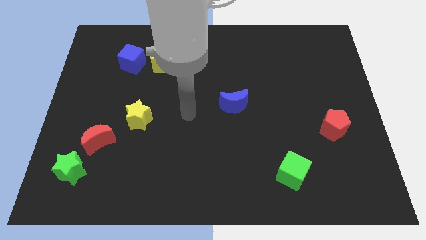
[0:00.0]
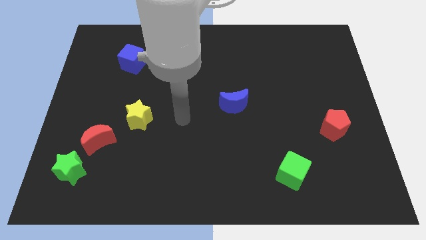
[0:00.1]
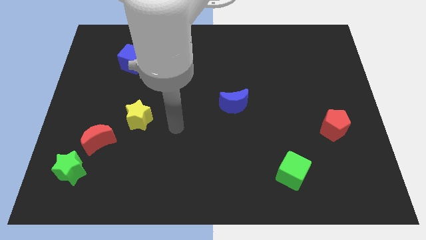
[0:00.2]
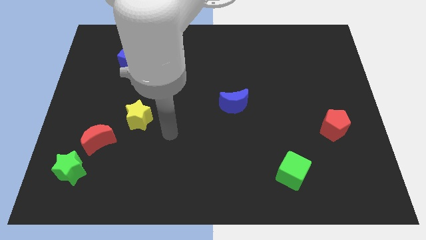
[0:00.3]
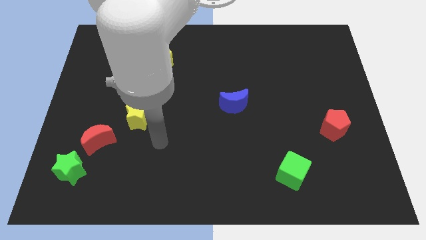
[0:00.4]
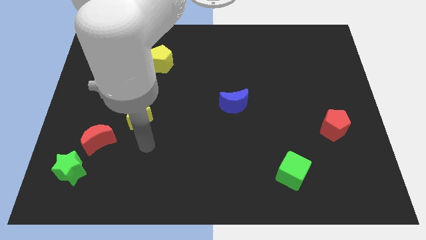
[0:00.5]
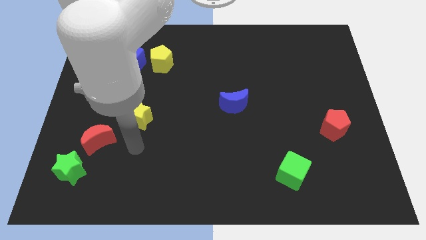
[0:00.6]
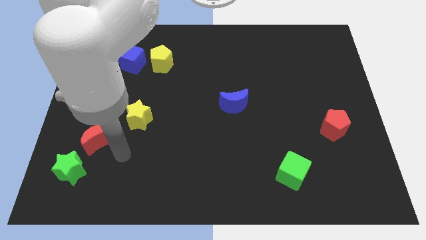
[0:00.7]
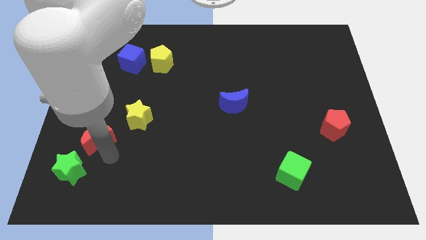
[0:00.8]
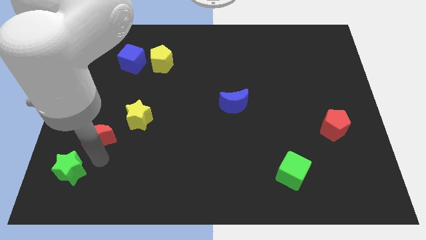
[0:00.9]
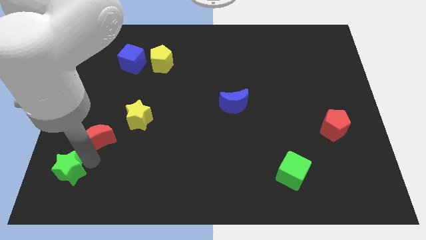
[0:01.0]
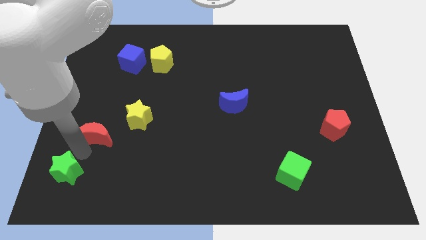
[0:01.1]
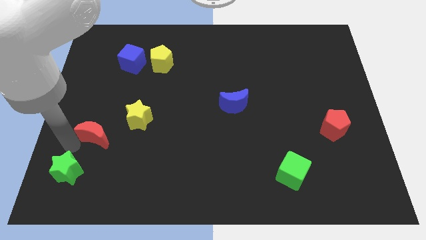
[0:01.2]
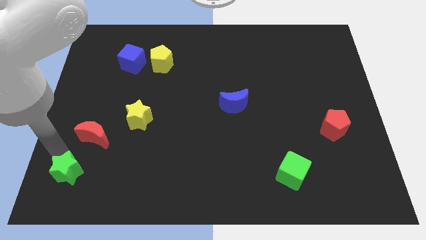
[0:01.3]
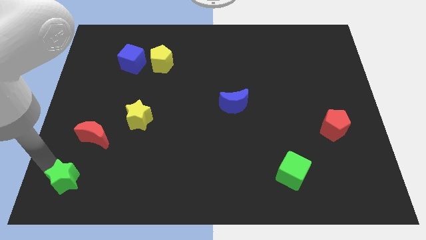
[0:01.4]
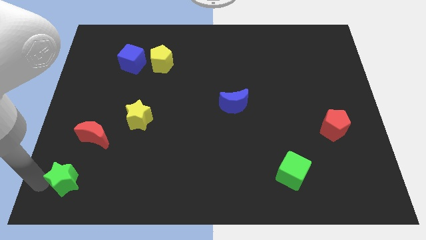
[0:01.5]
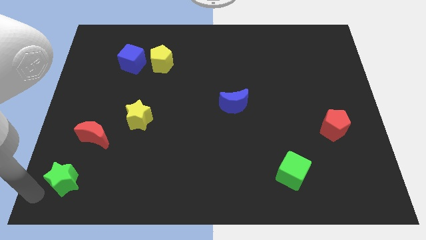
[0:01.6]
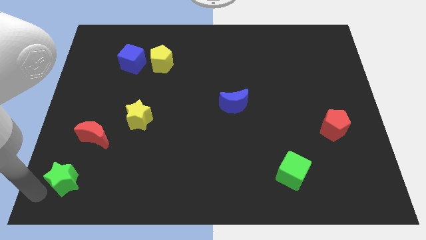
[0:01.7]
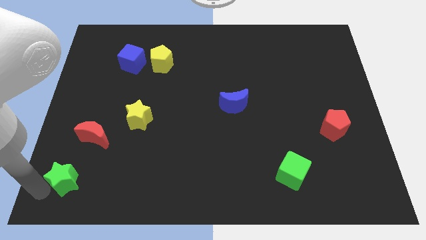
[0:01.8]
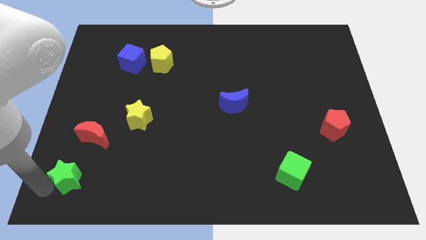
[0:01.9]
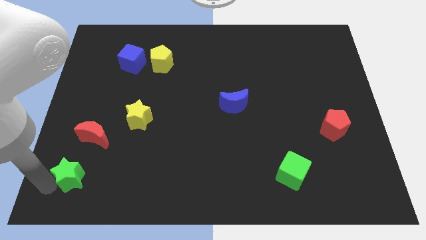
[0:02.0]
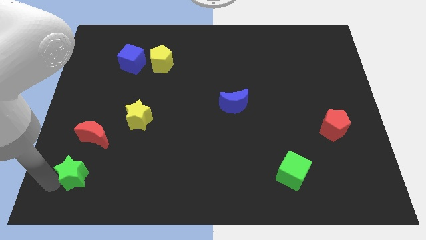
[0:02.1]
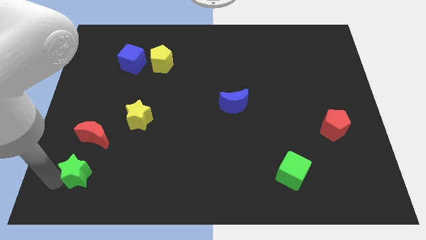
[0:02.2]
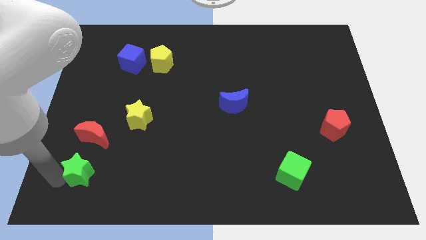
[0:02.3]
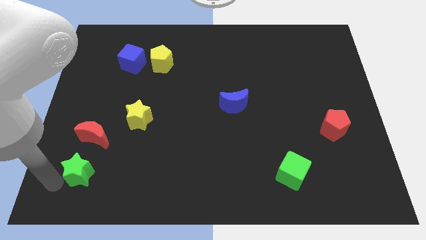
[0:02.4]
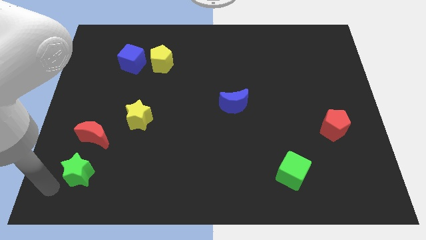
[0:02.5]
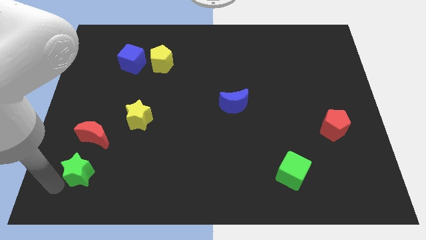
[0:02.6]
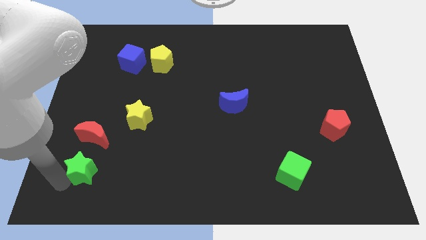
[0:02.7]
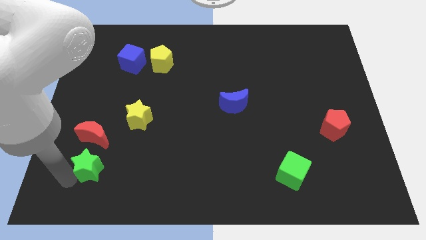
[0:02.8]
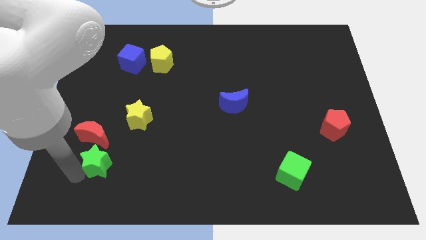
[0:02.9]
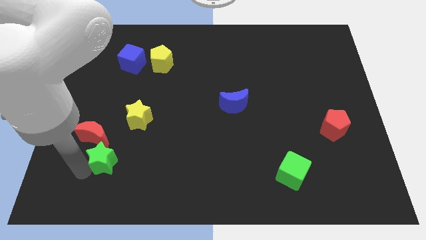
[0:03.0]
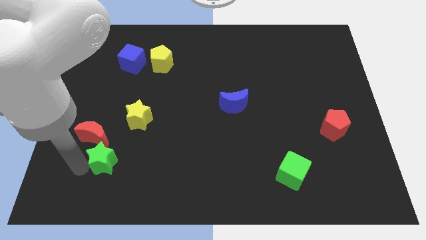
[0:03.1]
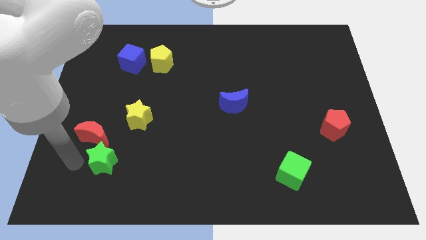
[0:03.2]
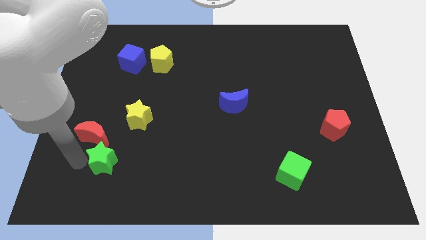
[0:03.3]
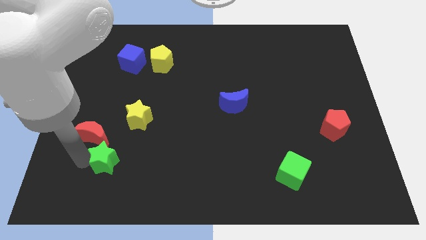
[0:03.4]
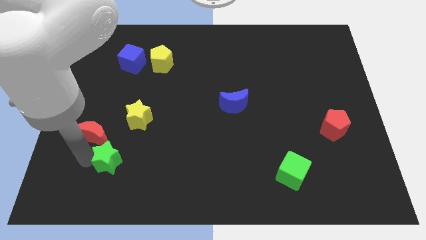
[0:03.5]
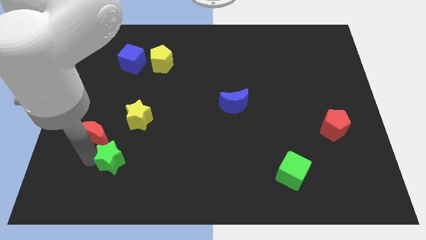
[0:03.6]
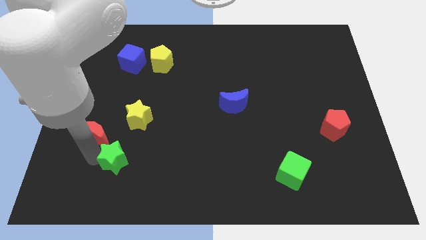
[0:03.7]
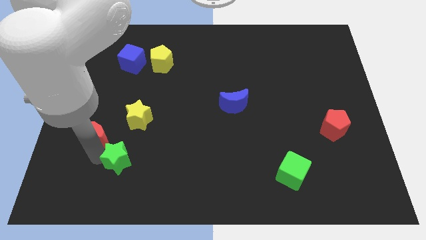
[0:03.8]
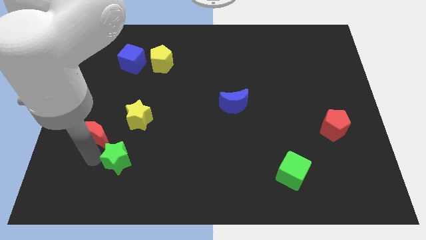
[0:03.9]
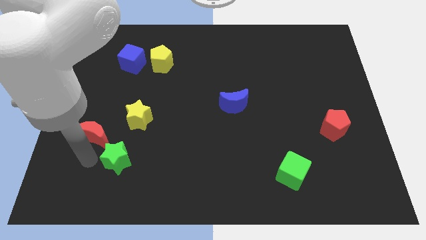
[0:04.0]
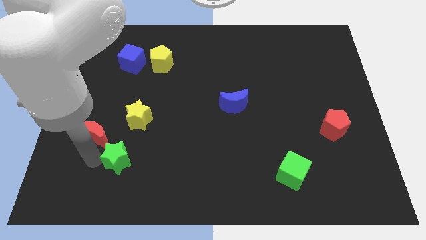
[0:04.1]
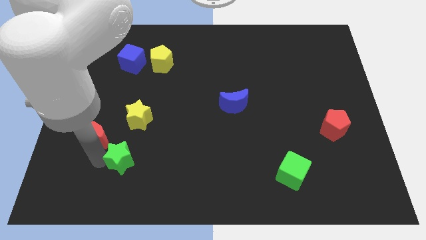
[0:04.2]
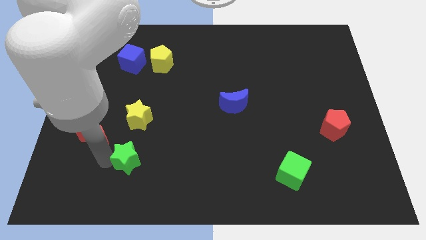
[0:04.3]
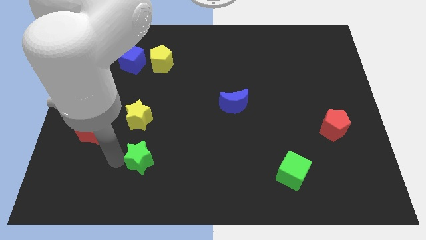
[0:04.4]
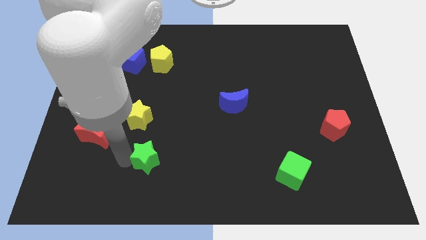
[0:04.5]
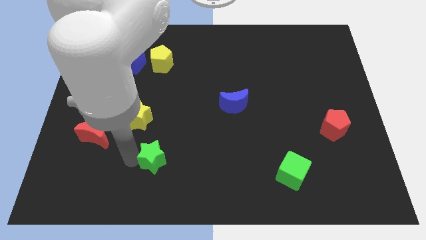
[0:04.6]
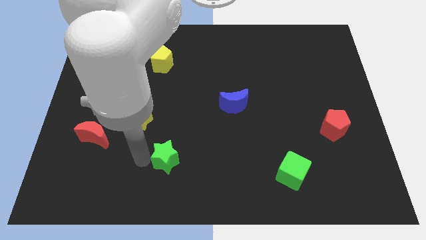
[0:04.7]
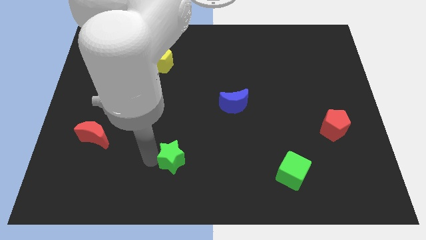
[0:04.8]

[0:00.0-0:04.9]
move the green star to the right

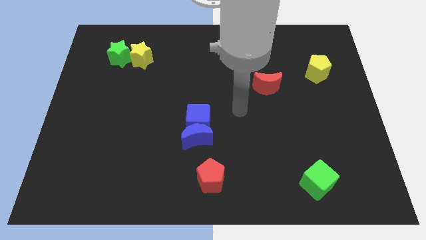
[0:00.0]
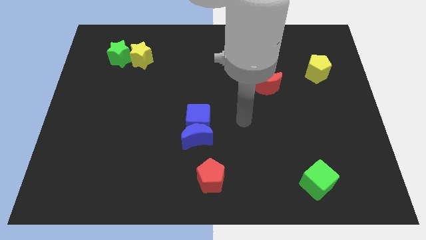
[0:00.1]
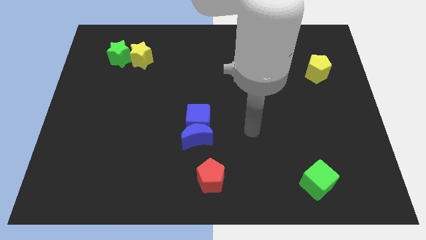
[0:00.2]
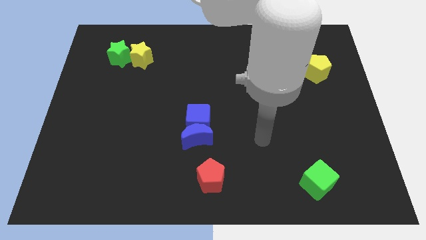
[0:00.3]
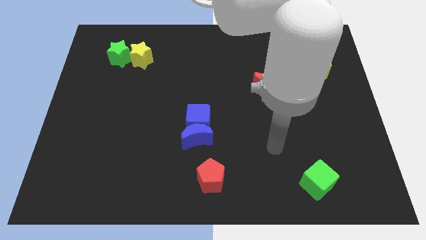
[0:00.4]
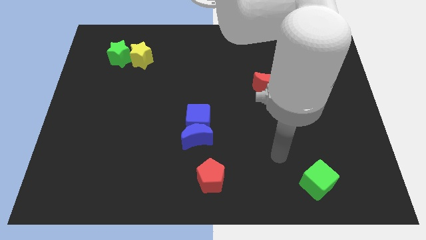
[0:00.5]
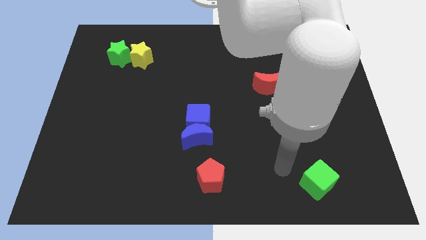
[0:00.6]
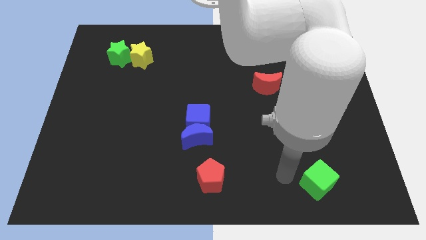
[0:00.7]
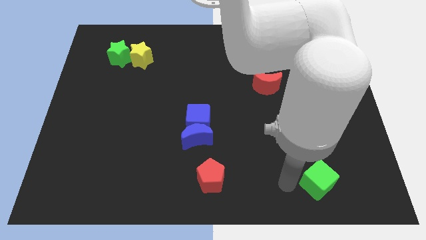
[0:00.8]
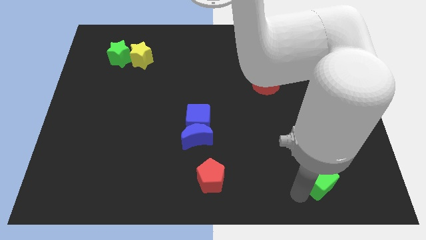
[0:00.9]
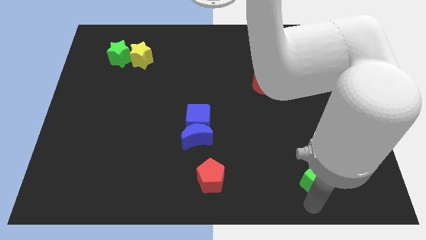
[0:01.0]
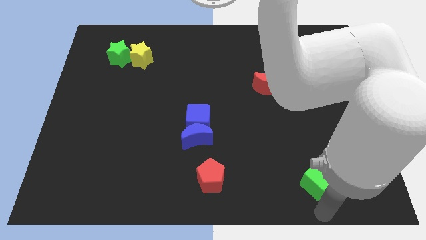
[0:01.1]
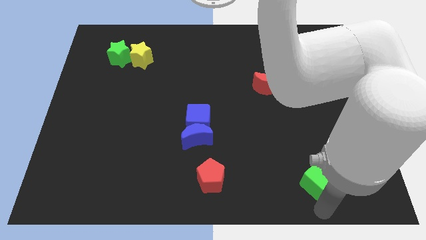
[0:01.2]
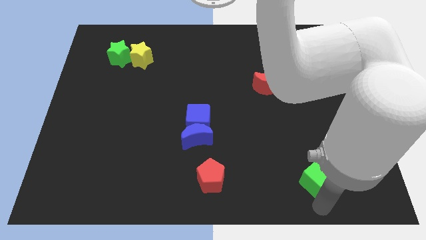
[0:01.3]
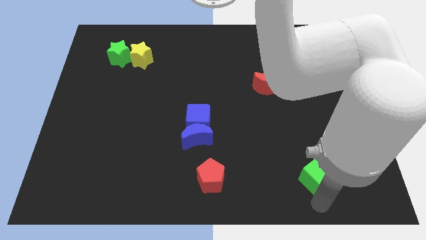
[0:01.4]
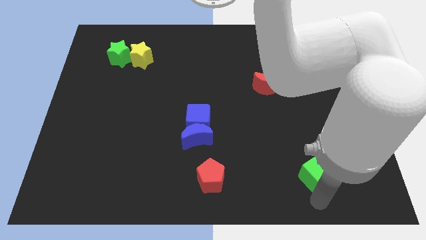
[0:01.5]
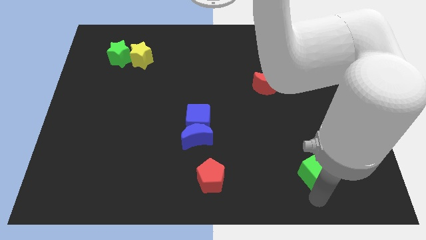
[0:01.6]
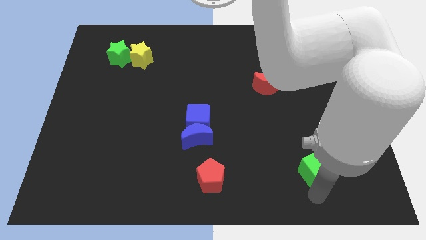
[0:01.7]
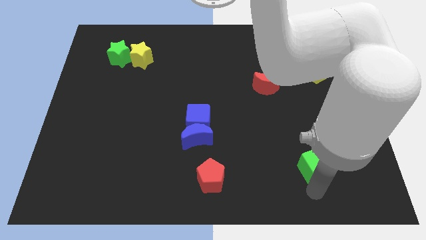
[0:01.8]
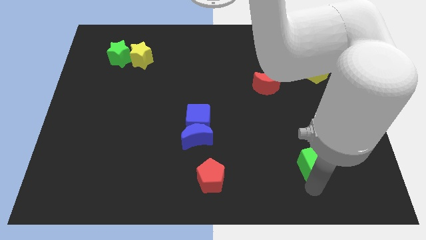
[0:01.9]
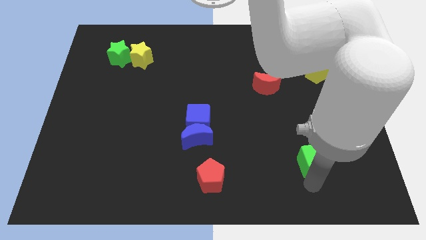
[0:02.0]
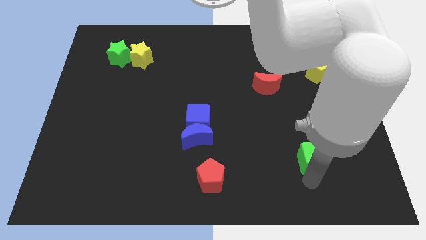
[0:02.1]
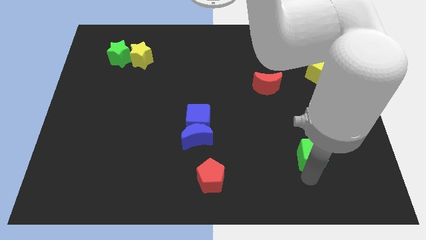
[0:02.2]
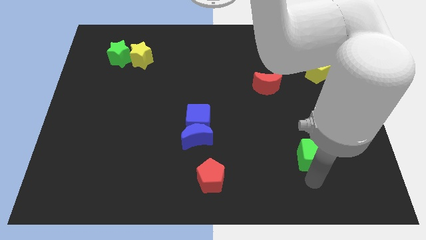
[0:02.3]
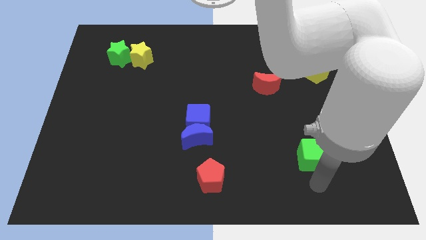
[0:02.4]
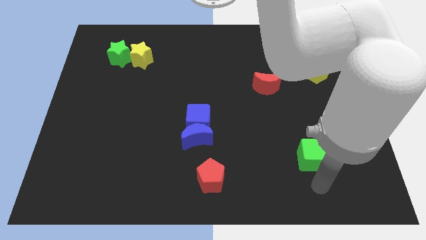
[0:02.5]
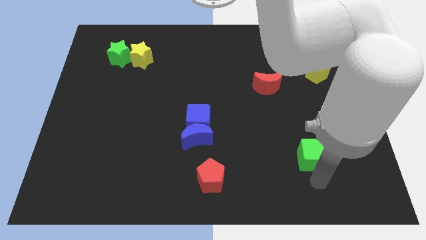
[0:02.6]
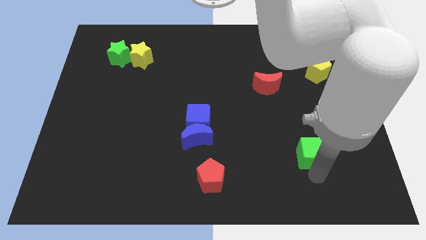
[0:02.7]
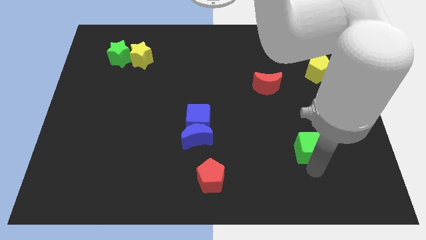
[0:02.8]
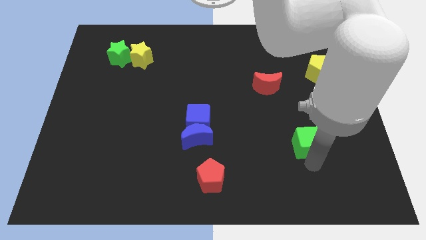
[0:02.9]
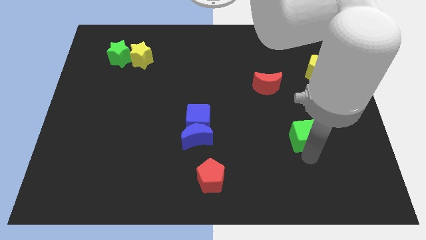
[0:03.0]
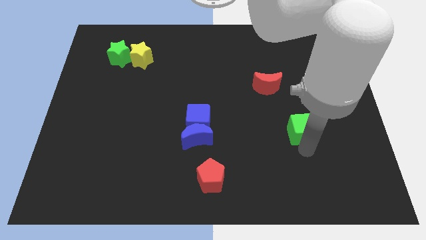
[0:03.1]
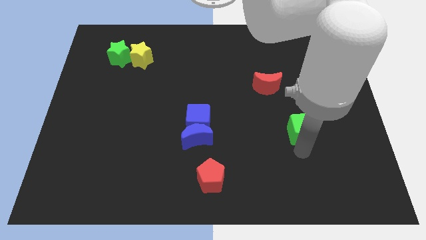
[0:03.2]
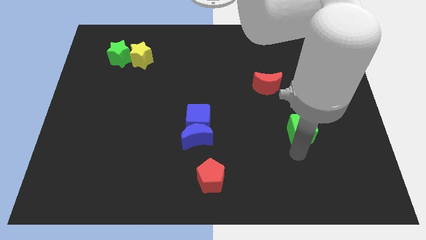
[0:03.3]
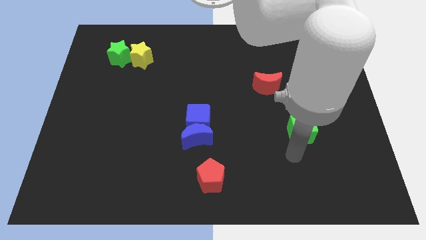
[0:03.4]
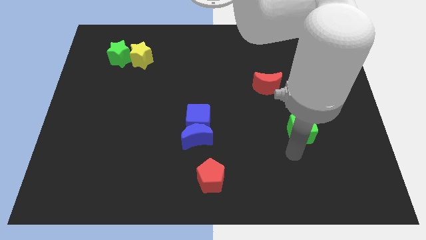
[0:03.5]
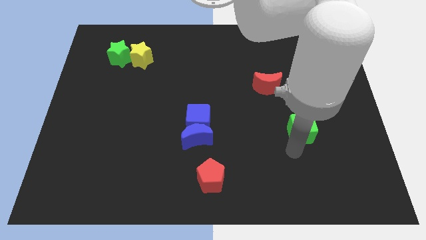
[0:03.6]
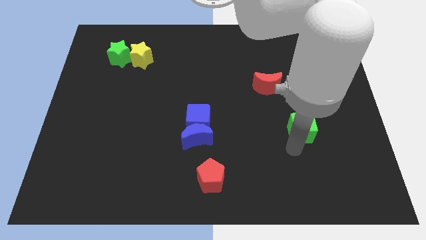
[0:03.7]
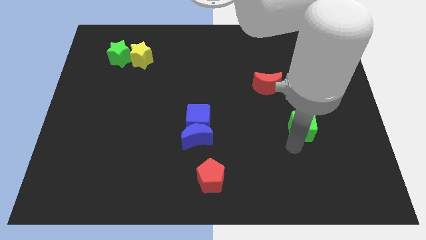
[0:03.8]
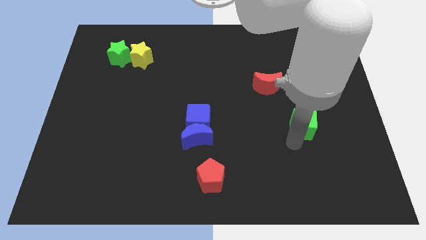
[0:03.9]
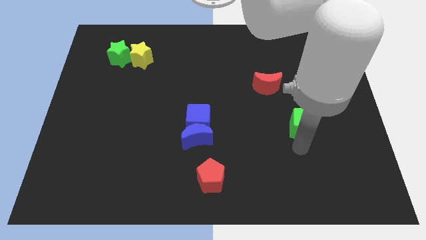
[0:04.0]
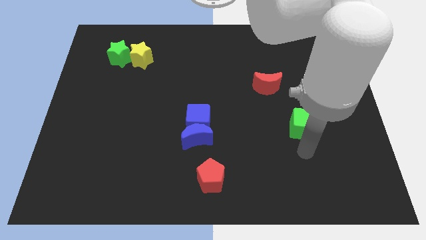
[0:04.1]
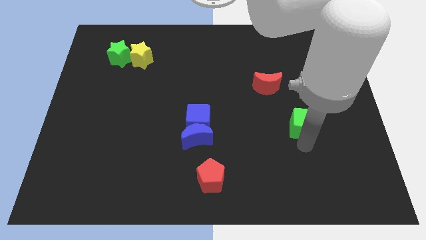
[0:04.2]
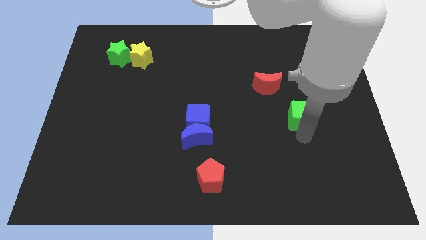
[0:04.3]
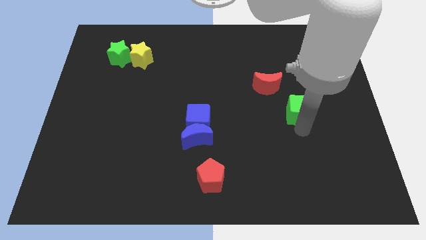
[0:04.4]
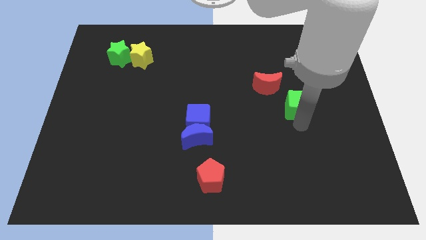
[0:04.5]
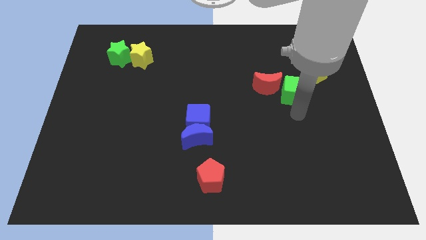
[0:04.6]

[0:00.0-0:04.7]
slide the green cube upwards
